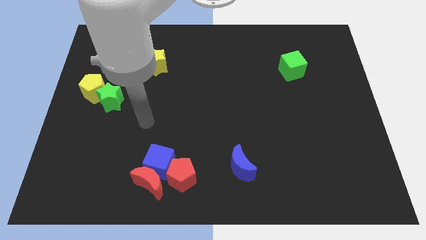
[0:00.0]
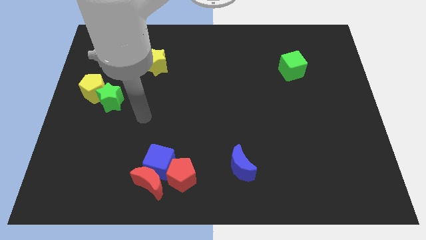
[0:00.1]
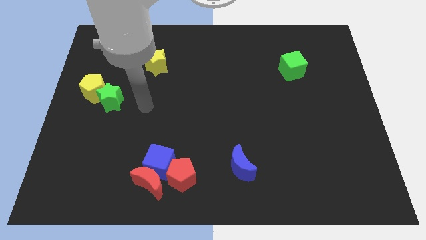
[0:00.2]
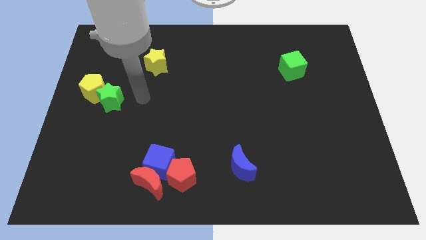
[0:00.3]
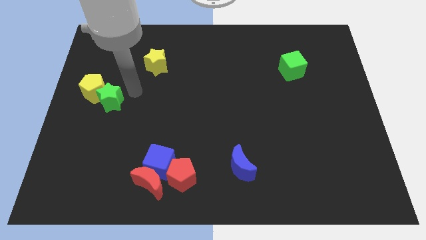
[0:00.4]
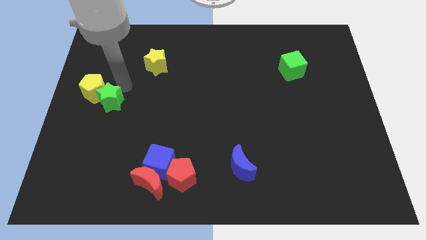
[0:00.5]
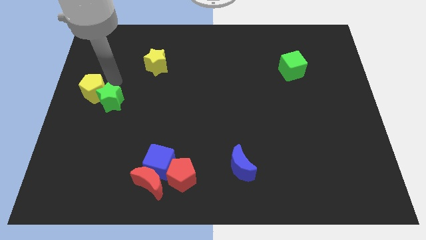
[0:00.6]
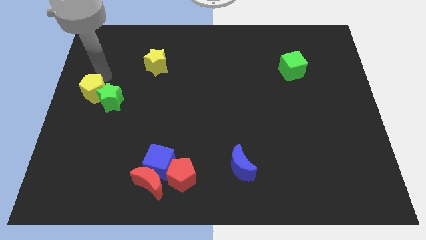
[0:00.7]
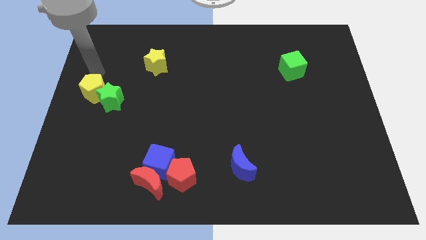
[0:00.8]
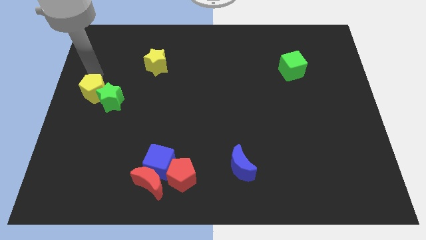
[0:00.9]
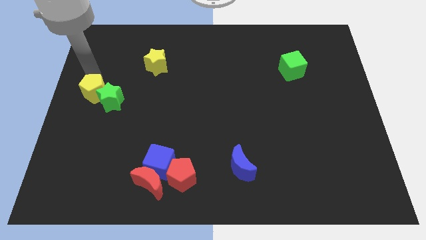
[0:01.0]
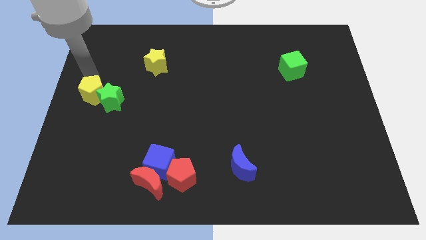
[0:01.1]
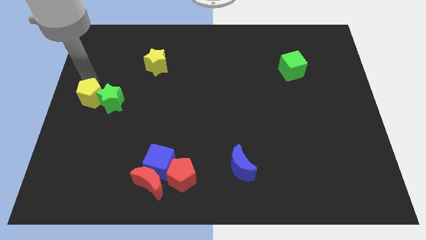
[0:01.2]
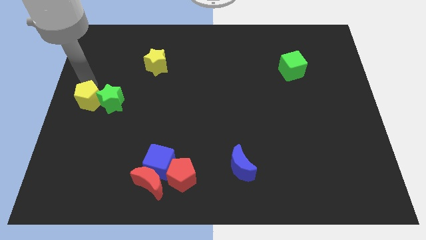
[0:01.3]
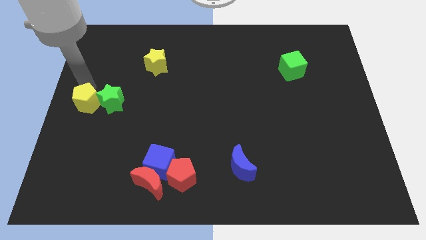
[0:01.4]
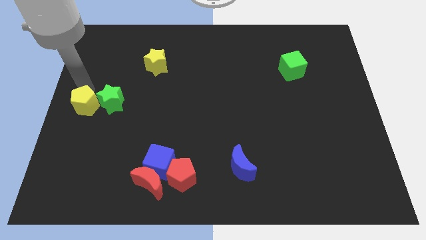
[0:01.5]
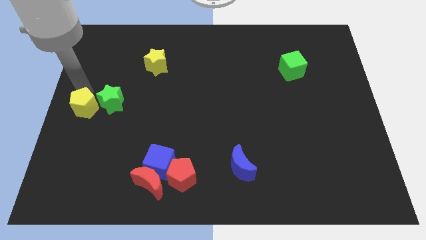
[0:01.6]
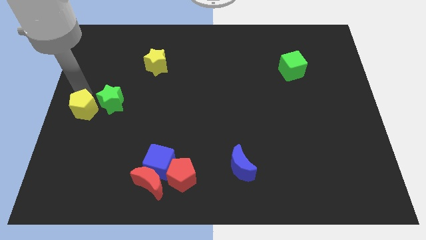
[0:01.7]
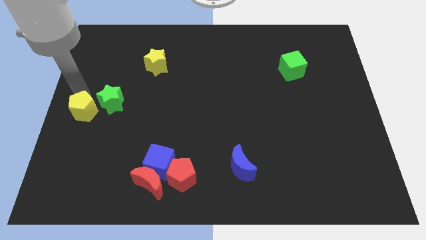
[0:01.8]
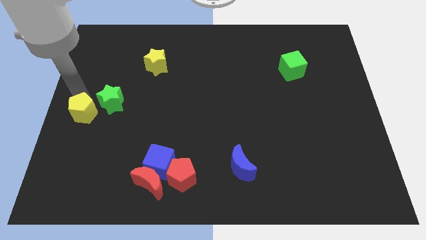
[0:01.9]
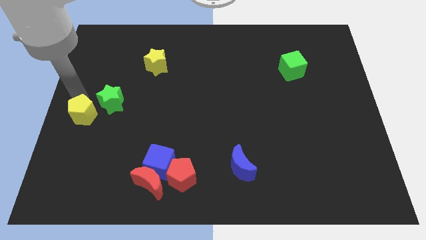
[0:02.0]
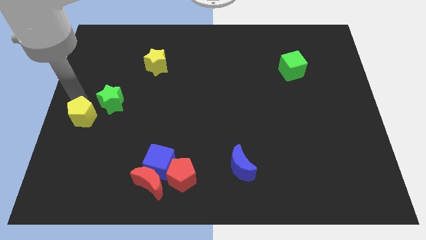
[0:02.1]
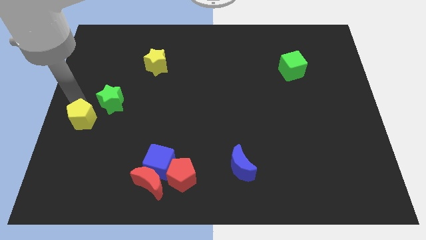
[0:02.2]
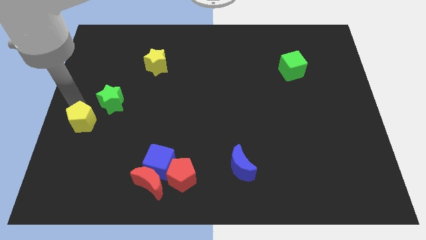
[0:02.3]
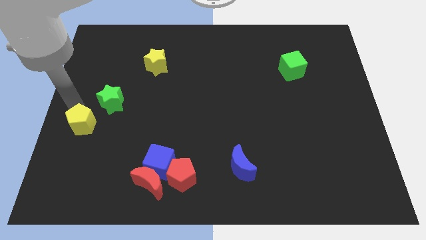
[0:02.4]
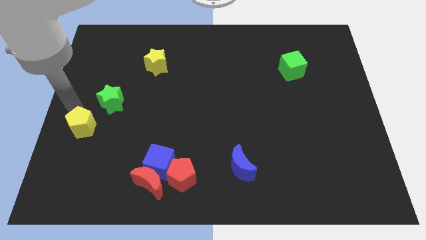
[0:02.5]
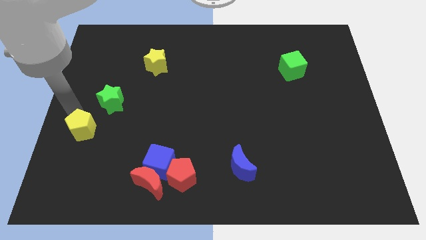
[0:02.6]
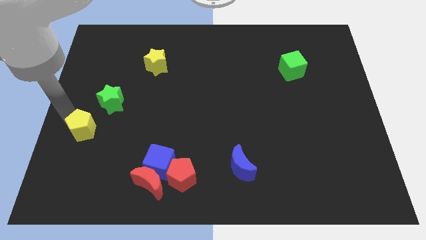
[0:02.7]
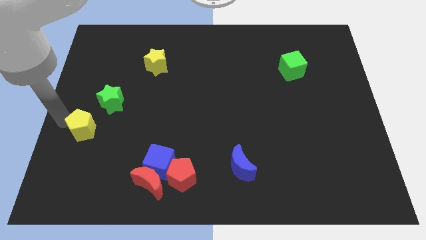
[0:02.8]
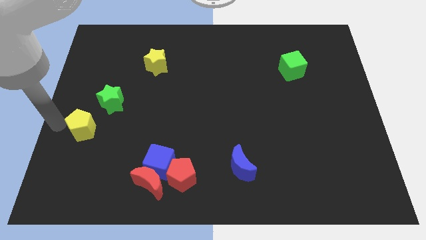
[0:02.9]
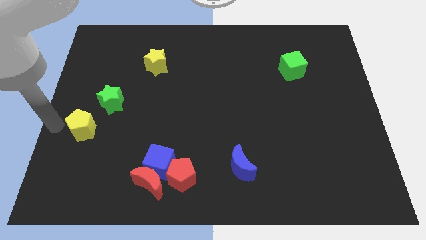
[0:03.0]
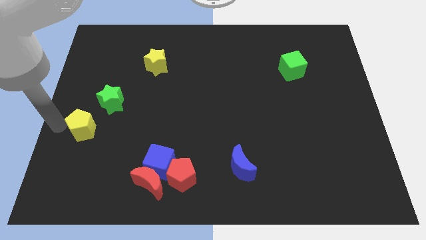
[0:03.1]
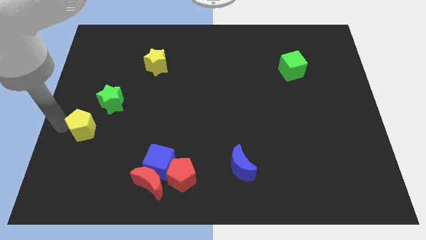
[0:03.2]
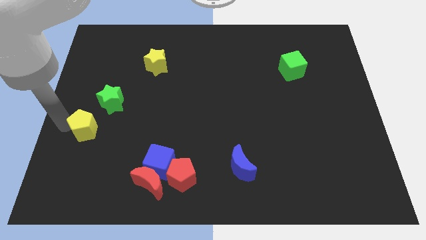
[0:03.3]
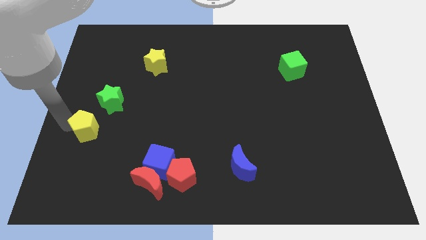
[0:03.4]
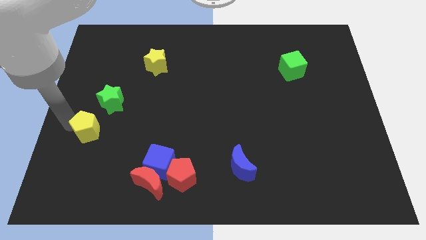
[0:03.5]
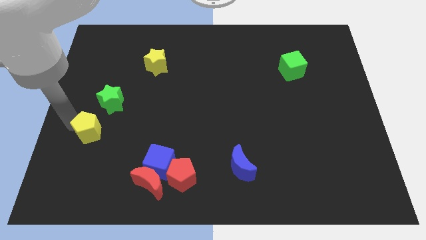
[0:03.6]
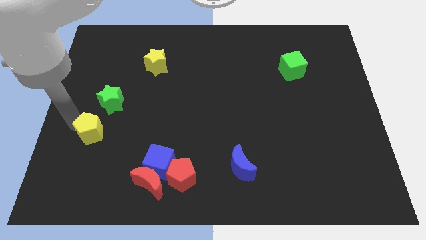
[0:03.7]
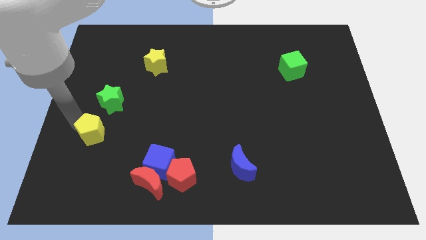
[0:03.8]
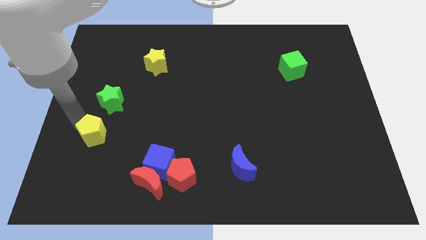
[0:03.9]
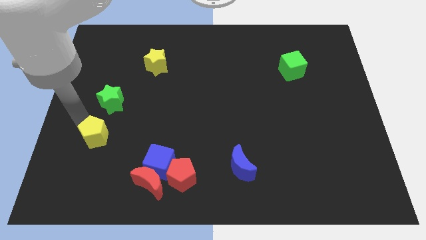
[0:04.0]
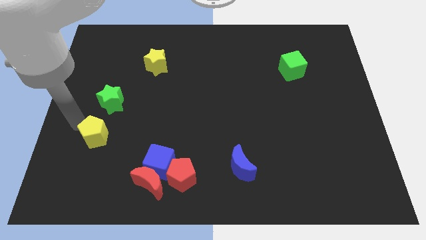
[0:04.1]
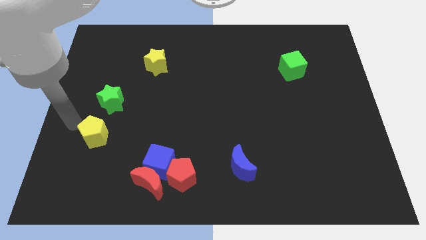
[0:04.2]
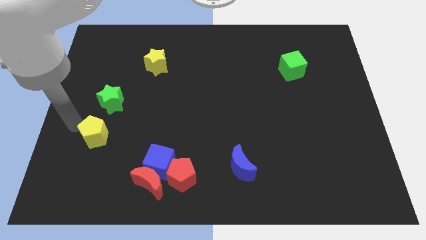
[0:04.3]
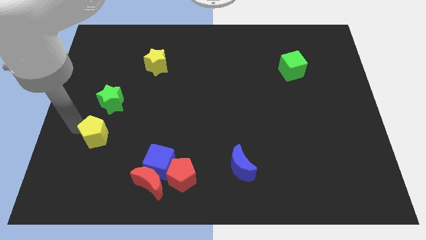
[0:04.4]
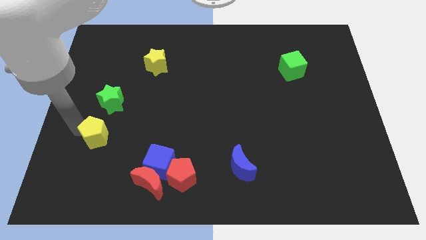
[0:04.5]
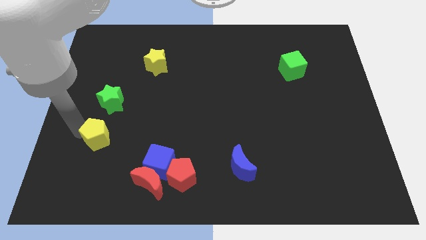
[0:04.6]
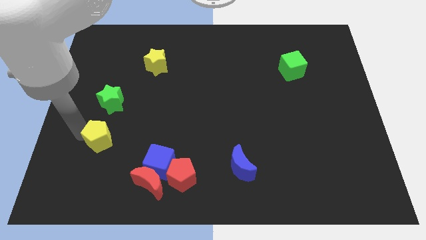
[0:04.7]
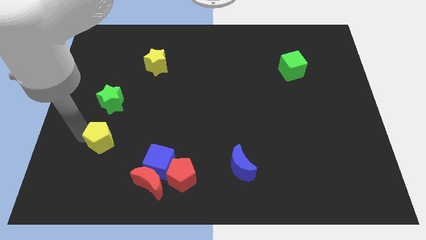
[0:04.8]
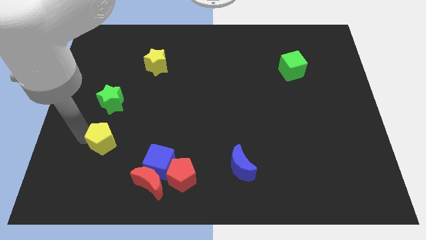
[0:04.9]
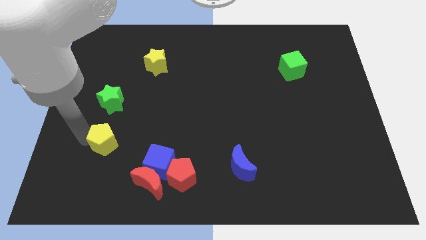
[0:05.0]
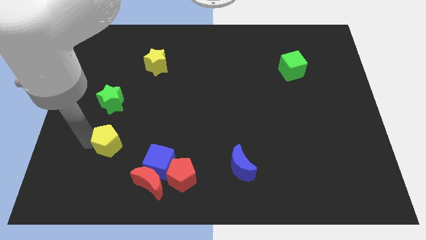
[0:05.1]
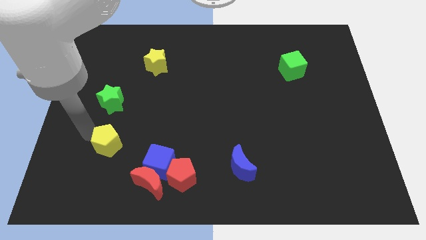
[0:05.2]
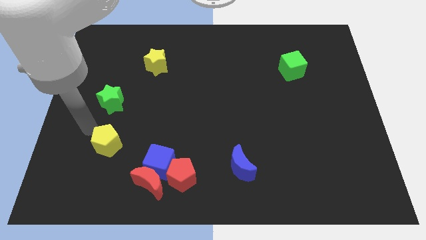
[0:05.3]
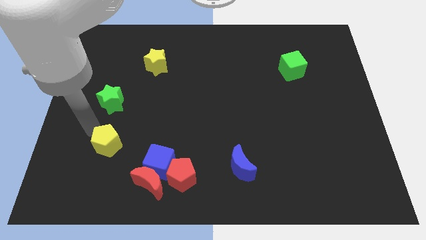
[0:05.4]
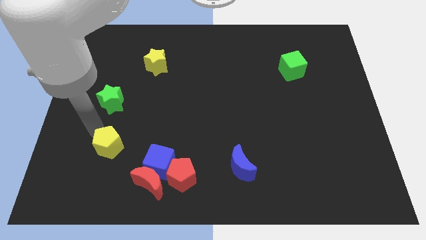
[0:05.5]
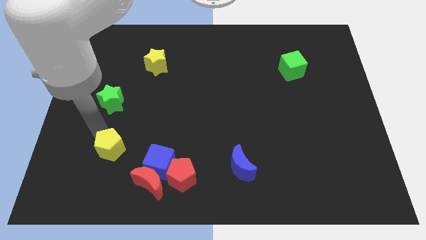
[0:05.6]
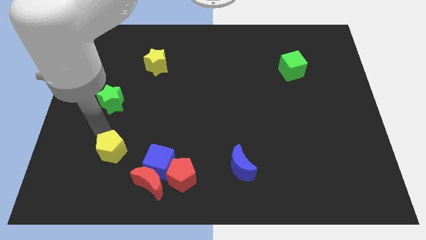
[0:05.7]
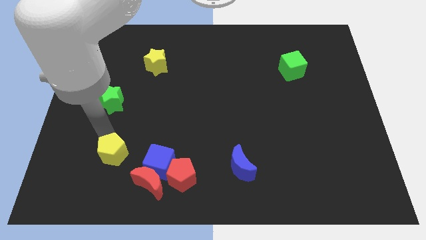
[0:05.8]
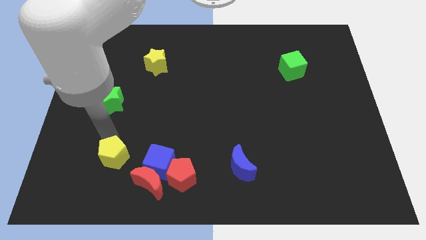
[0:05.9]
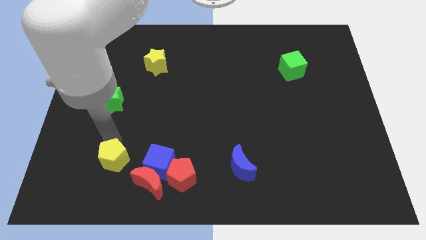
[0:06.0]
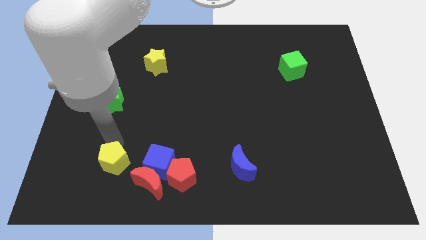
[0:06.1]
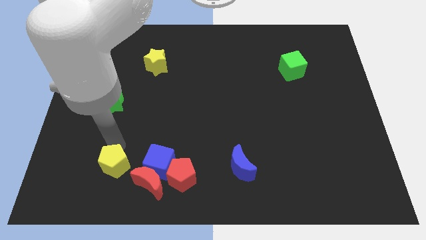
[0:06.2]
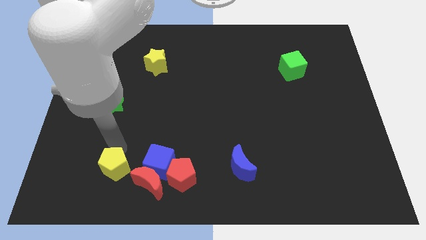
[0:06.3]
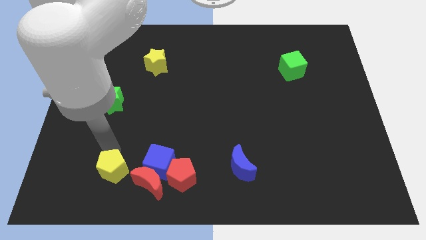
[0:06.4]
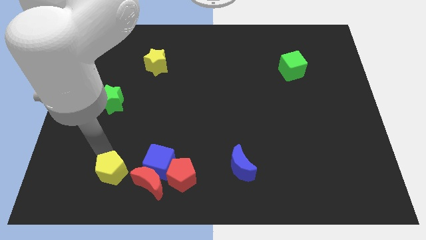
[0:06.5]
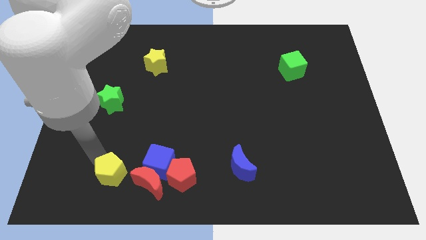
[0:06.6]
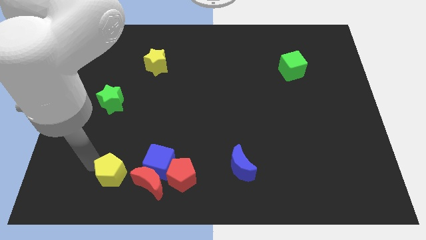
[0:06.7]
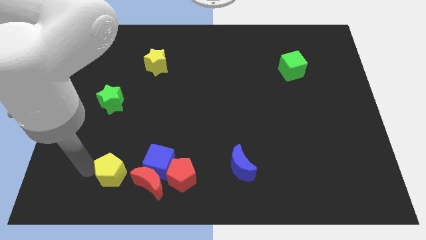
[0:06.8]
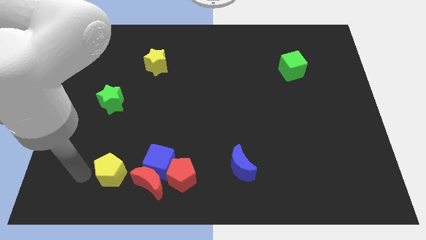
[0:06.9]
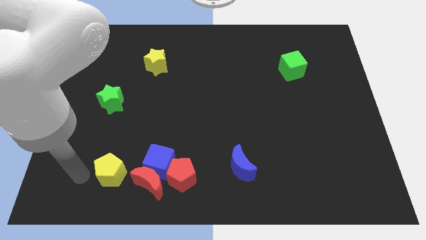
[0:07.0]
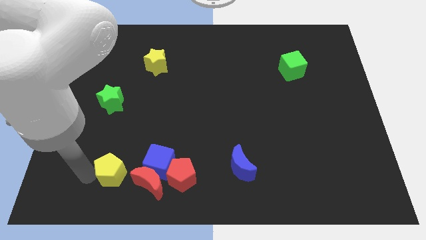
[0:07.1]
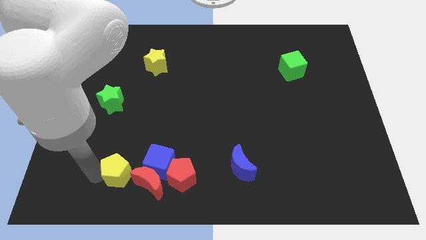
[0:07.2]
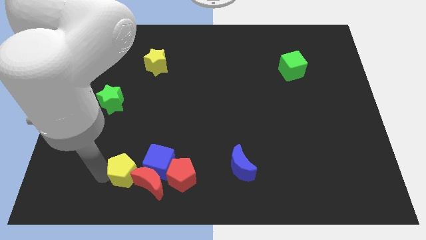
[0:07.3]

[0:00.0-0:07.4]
put the yellow pentagon next to the red moon
